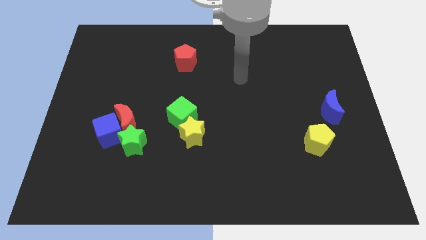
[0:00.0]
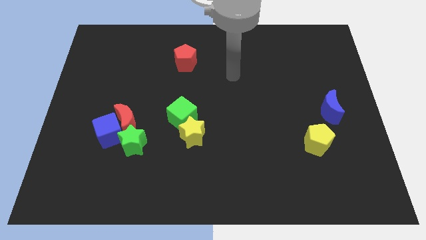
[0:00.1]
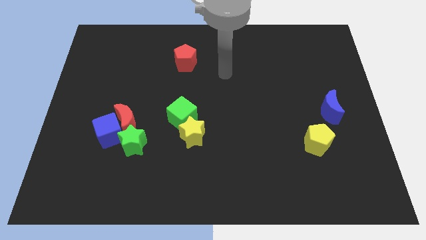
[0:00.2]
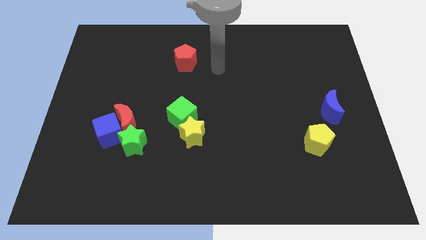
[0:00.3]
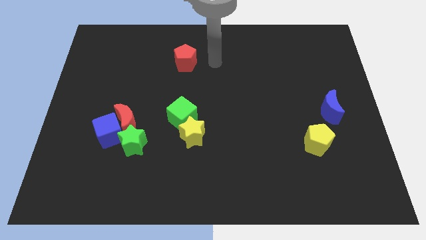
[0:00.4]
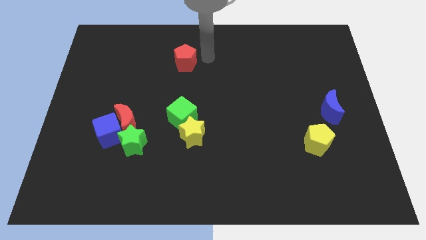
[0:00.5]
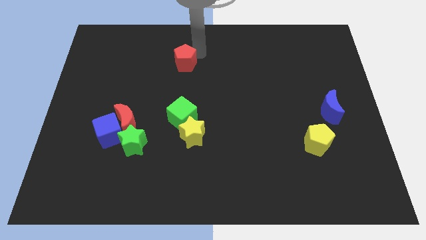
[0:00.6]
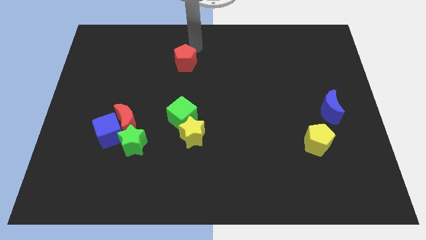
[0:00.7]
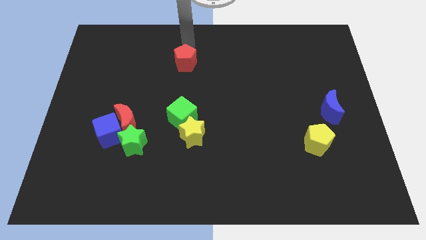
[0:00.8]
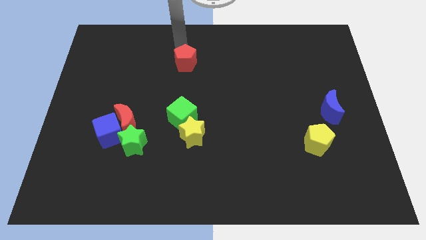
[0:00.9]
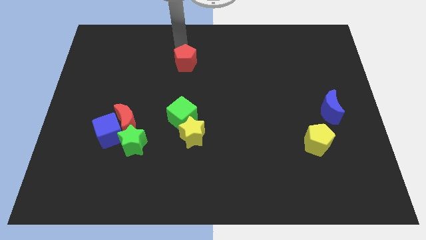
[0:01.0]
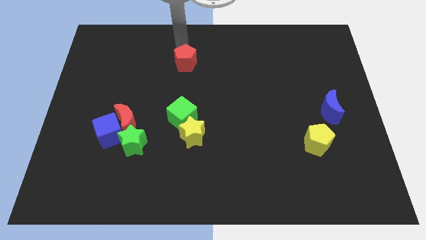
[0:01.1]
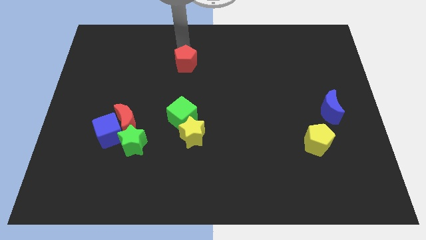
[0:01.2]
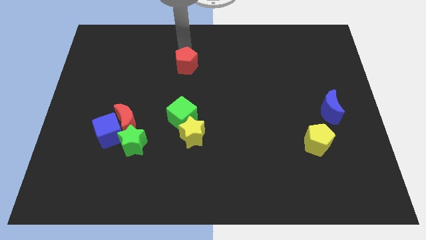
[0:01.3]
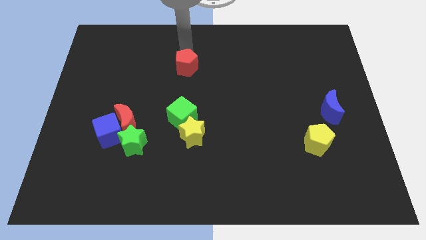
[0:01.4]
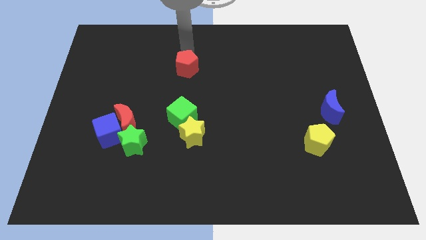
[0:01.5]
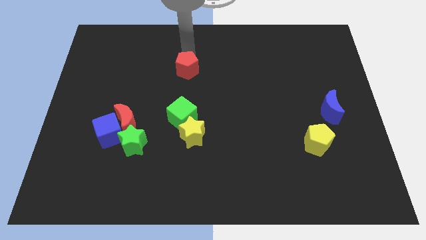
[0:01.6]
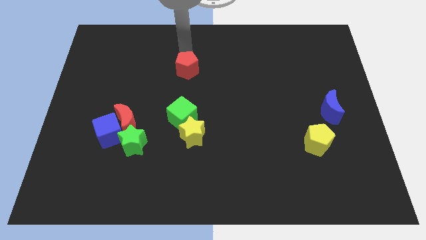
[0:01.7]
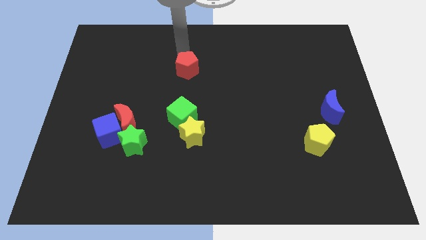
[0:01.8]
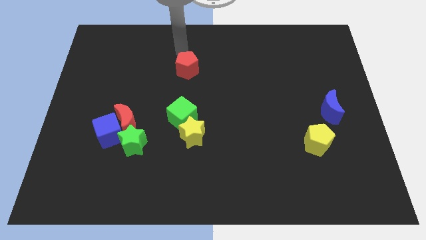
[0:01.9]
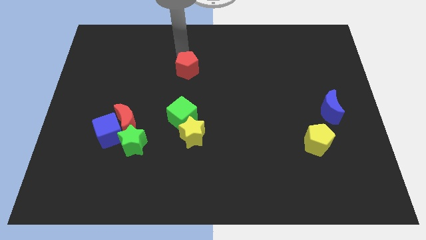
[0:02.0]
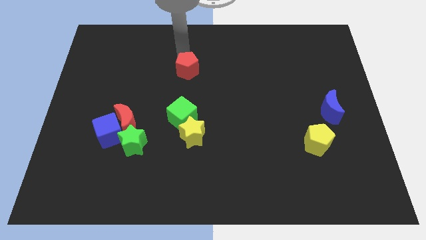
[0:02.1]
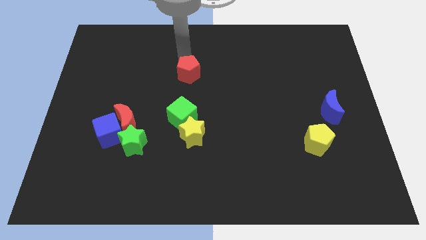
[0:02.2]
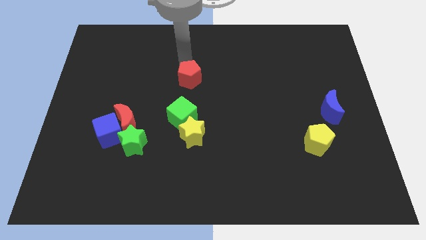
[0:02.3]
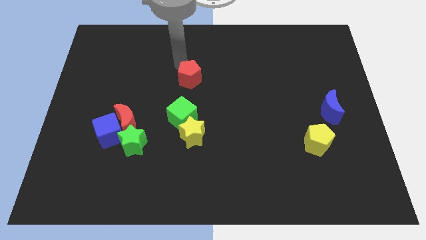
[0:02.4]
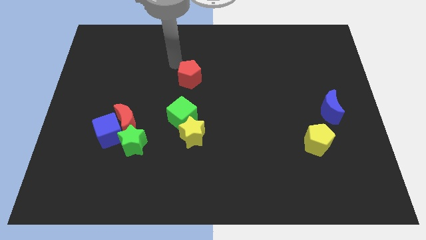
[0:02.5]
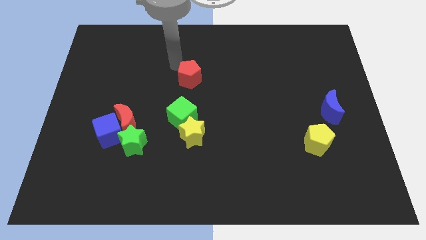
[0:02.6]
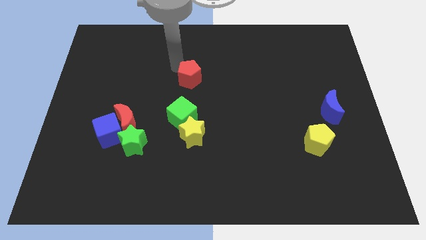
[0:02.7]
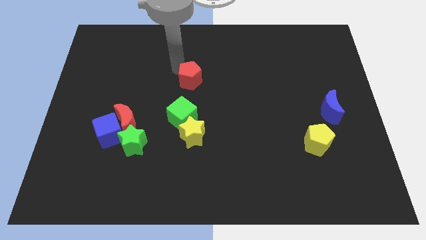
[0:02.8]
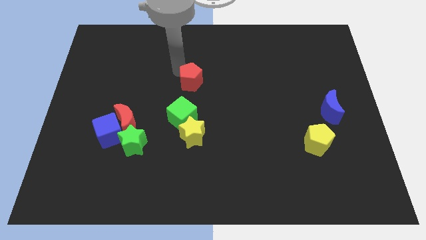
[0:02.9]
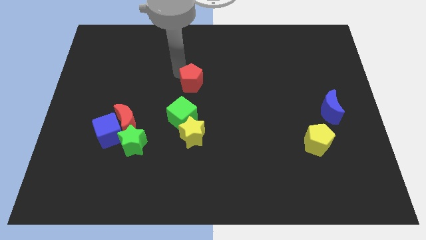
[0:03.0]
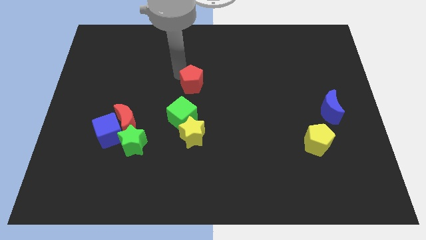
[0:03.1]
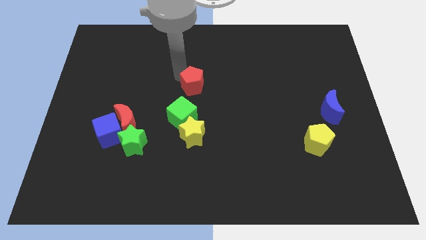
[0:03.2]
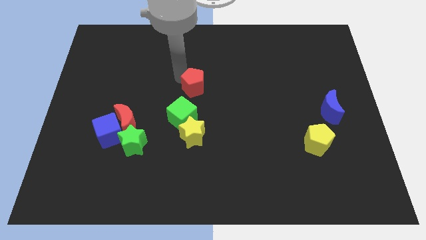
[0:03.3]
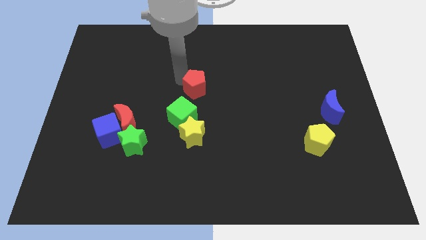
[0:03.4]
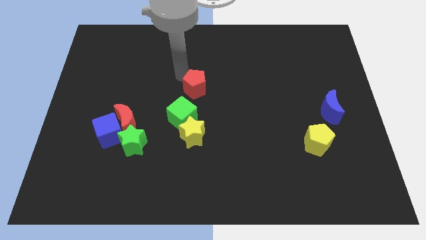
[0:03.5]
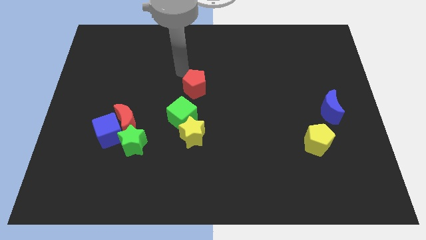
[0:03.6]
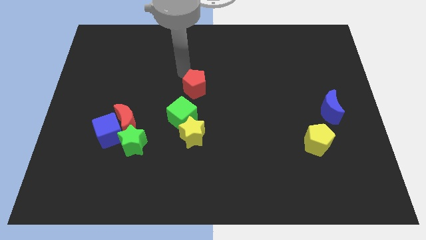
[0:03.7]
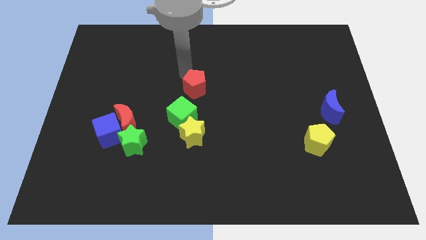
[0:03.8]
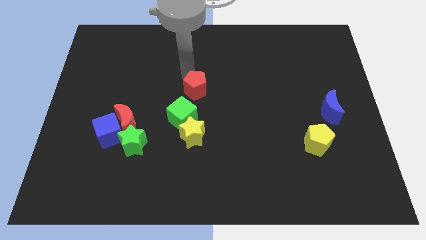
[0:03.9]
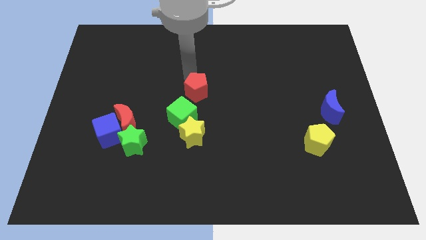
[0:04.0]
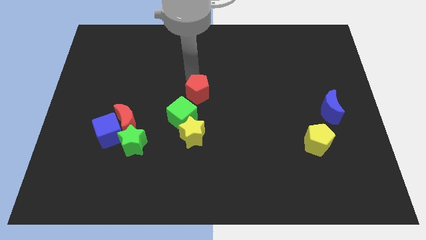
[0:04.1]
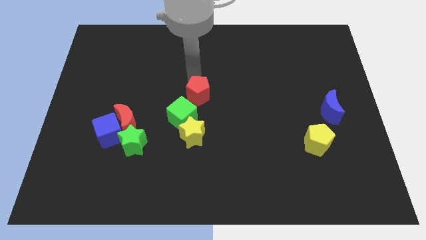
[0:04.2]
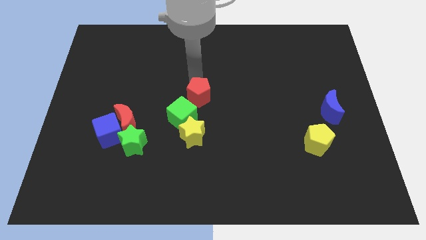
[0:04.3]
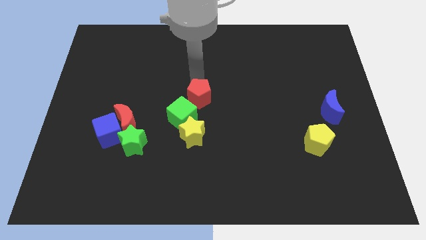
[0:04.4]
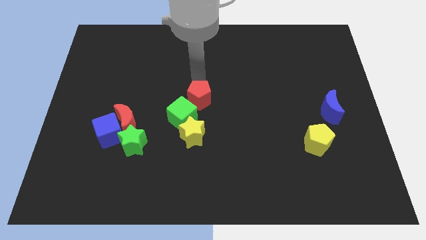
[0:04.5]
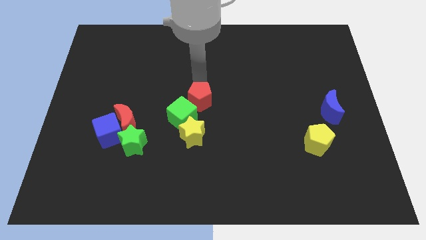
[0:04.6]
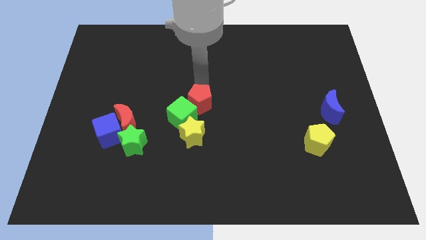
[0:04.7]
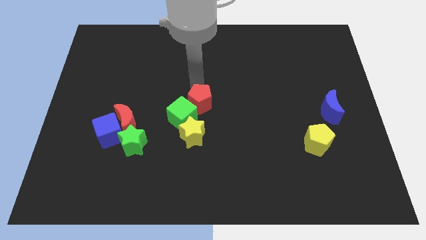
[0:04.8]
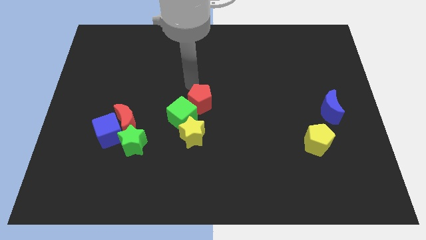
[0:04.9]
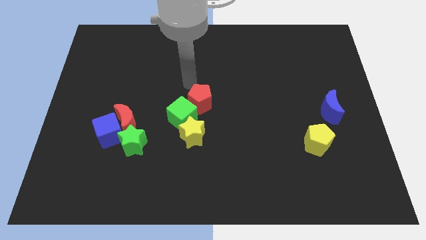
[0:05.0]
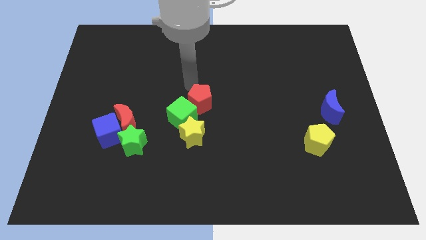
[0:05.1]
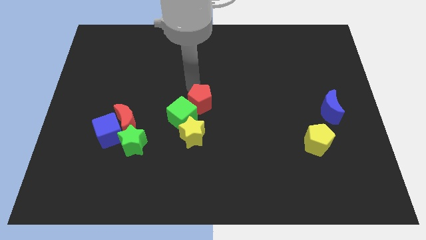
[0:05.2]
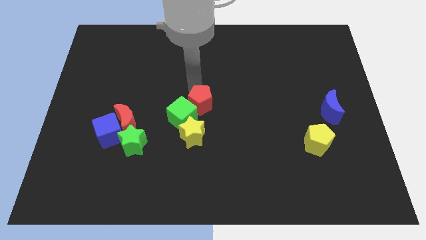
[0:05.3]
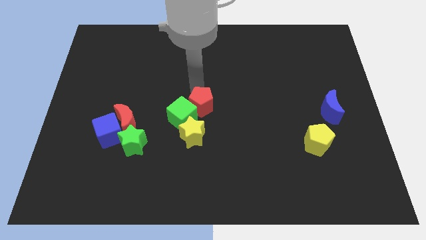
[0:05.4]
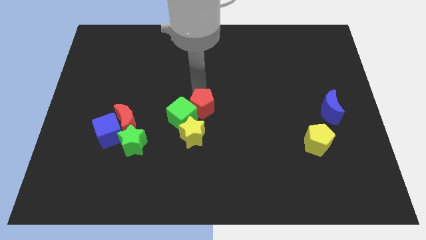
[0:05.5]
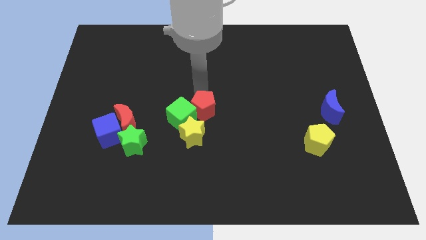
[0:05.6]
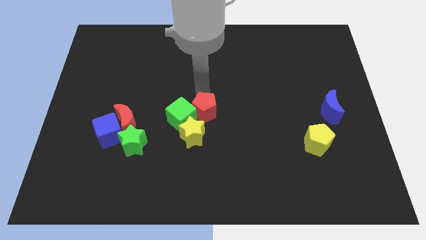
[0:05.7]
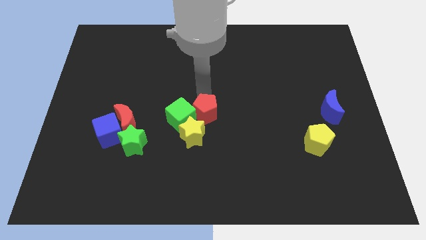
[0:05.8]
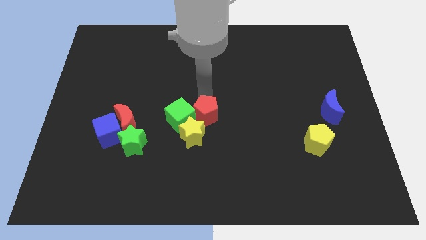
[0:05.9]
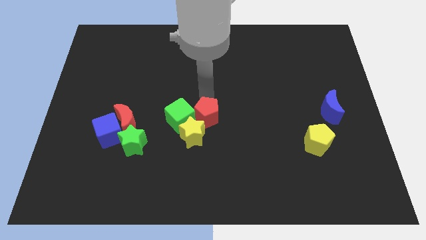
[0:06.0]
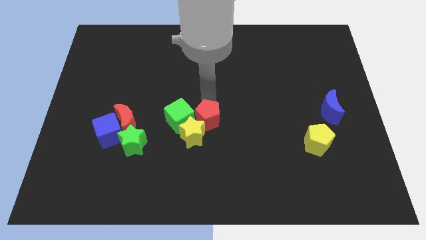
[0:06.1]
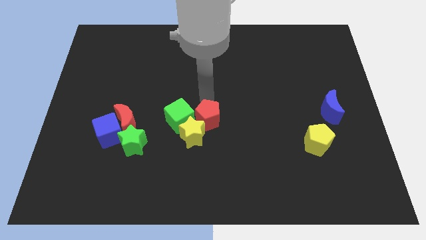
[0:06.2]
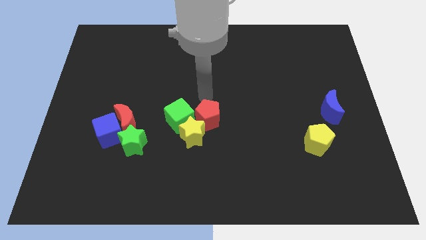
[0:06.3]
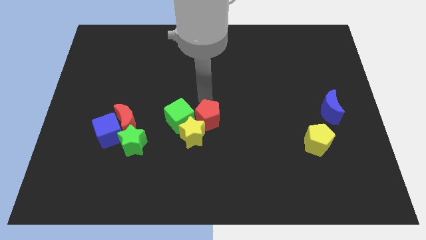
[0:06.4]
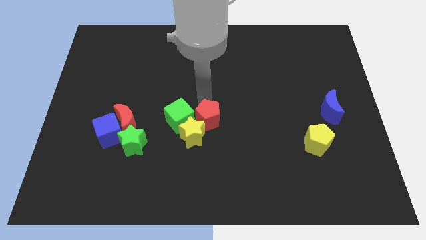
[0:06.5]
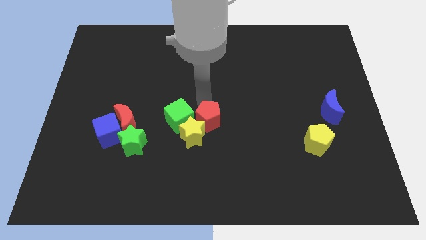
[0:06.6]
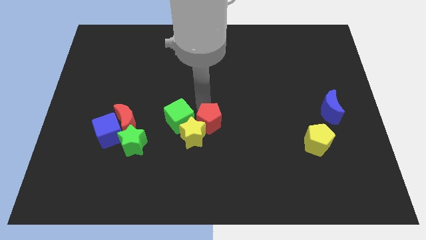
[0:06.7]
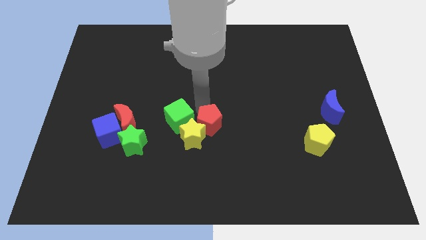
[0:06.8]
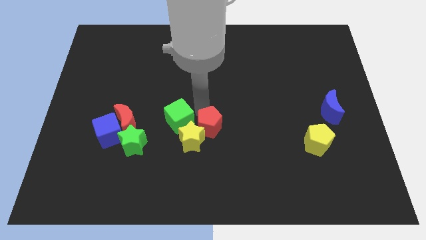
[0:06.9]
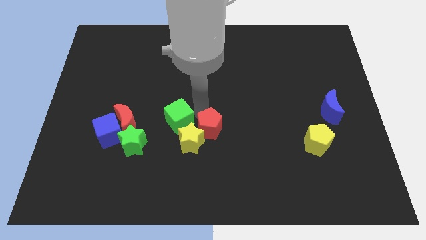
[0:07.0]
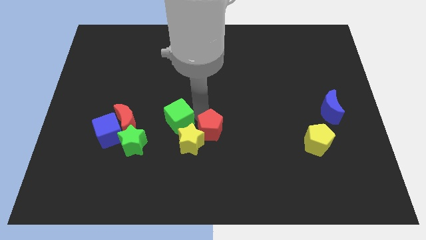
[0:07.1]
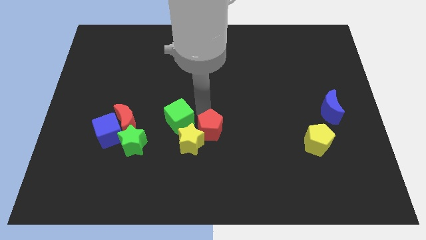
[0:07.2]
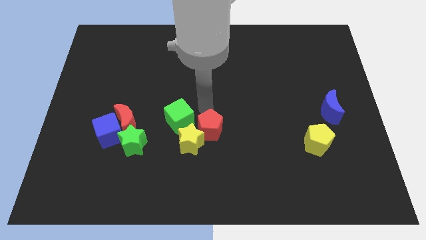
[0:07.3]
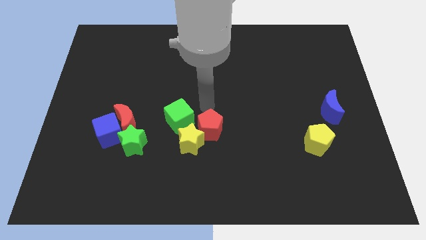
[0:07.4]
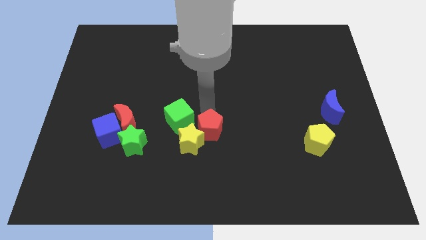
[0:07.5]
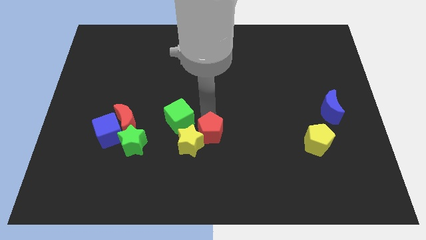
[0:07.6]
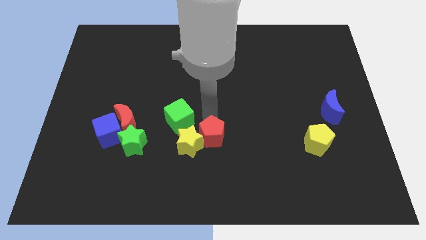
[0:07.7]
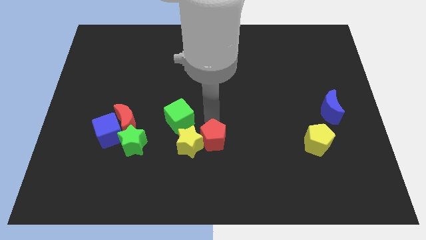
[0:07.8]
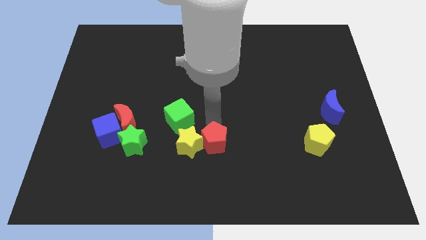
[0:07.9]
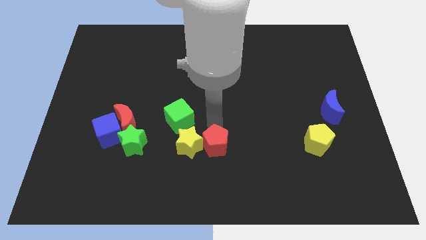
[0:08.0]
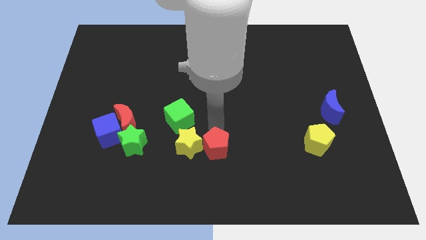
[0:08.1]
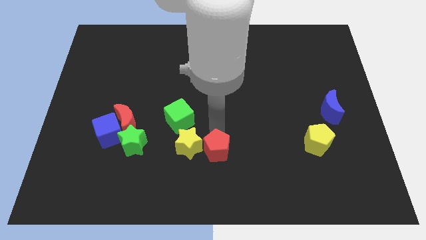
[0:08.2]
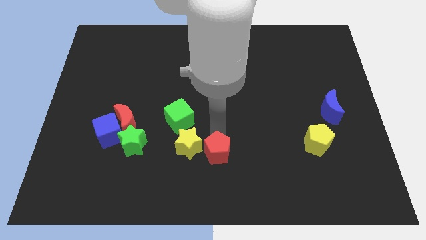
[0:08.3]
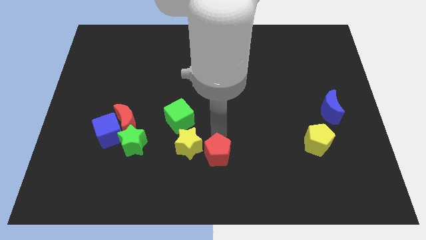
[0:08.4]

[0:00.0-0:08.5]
put the red pentagon to the bottom
